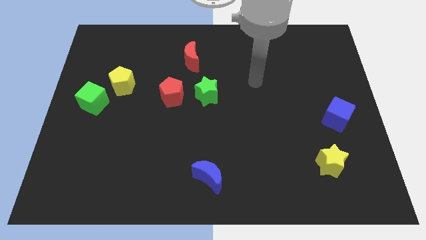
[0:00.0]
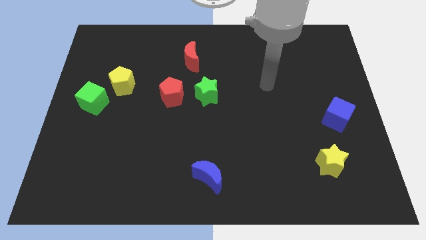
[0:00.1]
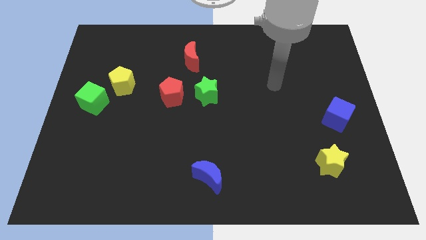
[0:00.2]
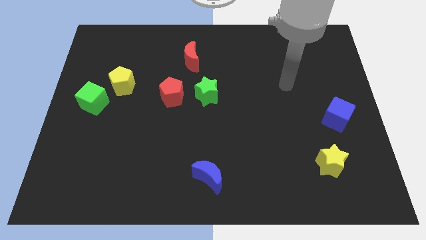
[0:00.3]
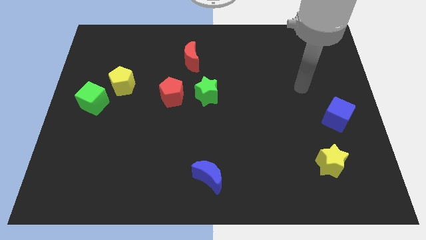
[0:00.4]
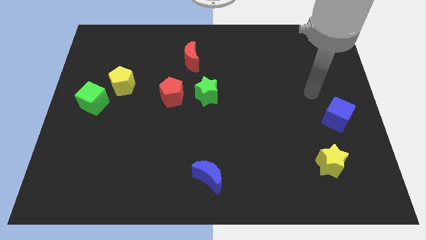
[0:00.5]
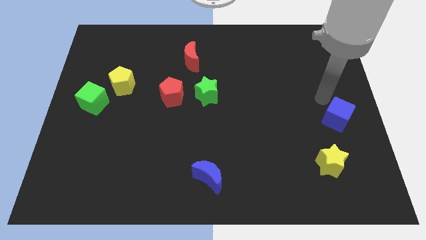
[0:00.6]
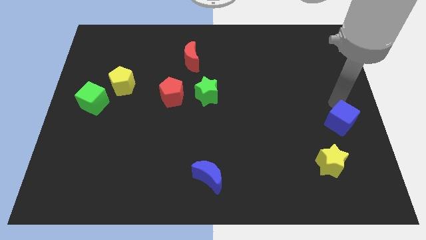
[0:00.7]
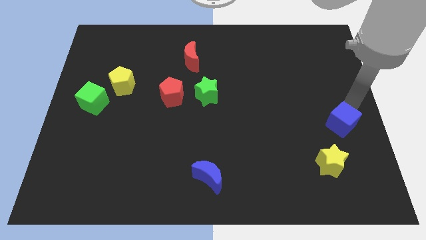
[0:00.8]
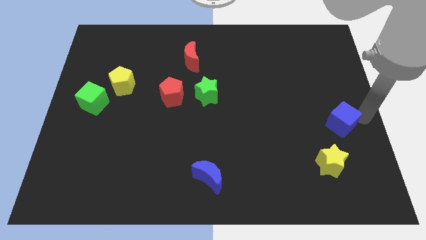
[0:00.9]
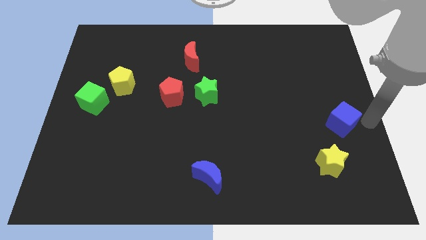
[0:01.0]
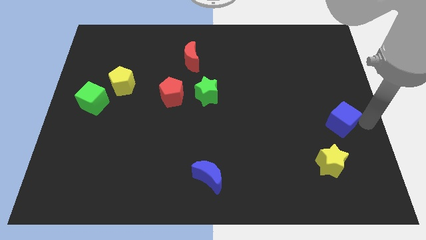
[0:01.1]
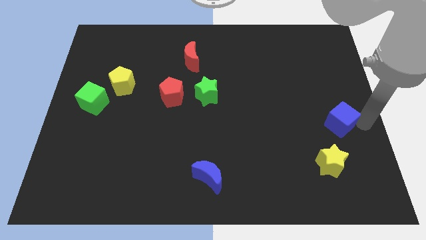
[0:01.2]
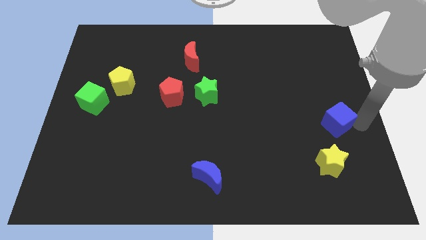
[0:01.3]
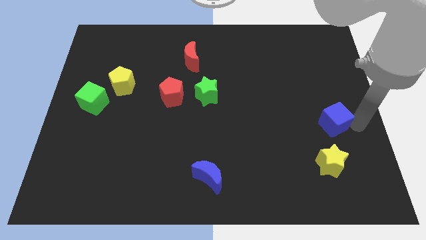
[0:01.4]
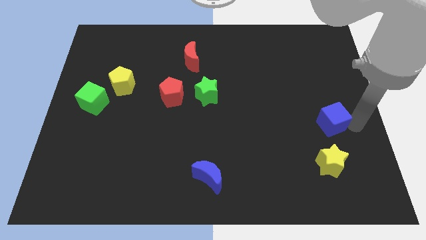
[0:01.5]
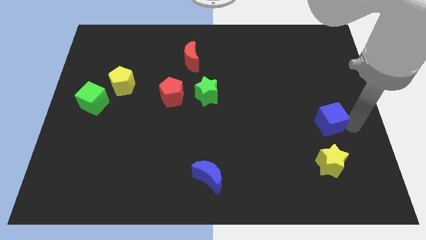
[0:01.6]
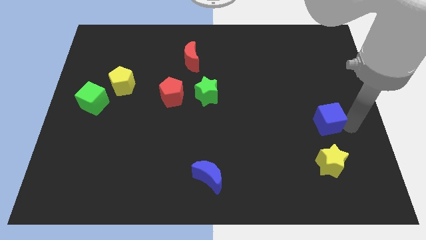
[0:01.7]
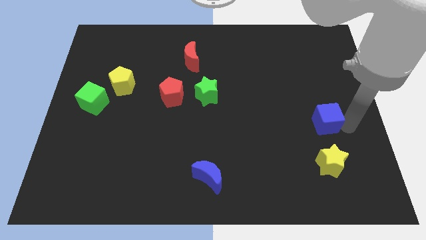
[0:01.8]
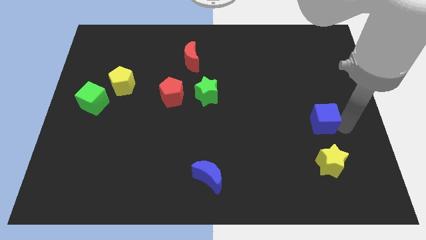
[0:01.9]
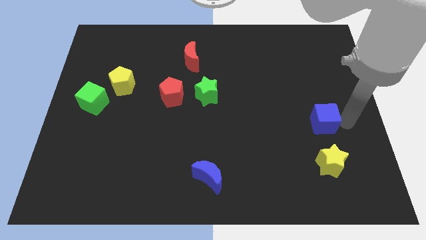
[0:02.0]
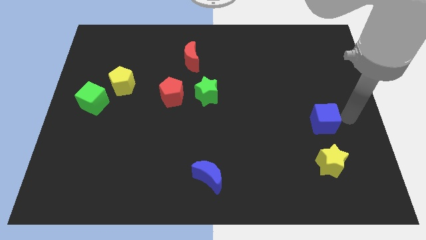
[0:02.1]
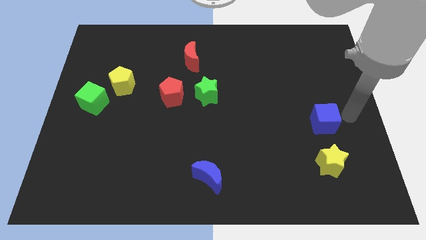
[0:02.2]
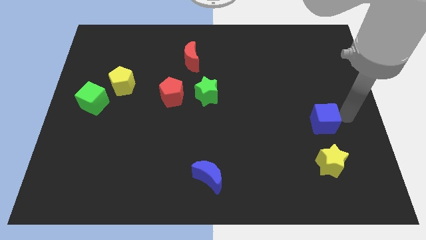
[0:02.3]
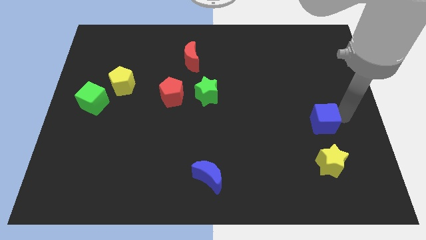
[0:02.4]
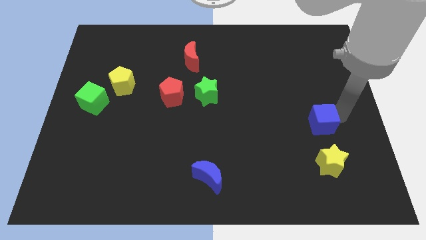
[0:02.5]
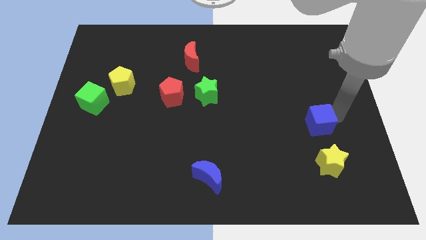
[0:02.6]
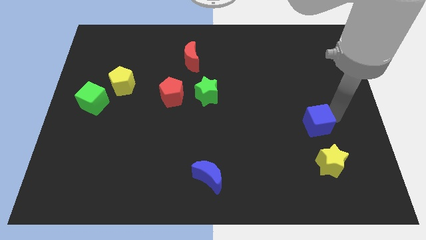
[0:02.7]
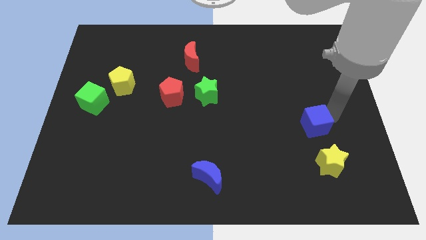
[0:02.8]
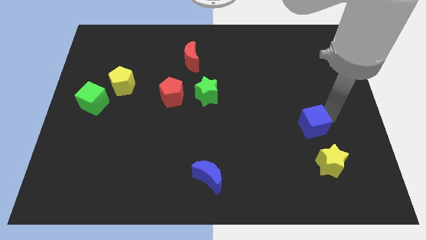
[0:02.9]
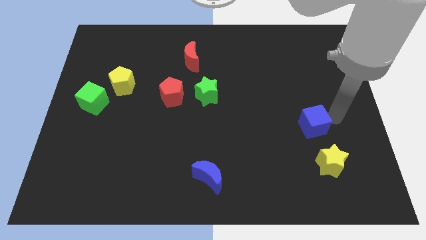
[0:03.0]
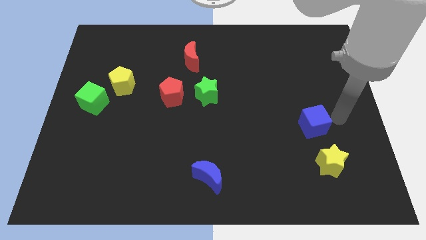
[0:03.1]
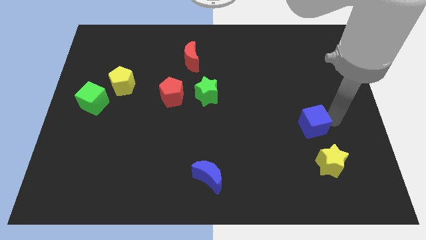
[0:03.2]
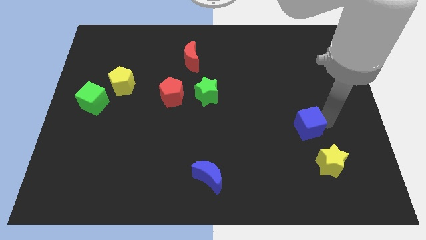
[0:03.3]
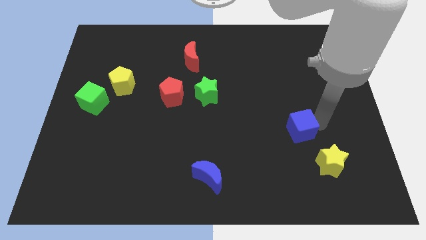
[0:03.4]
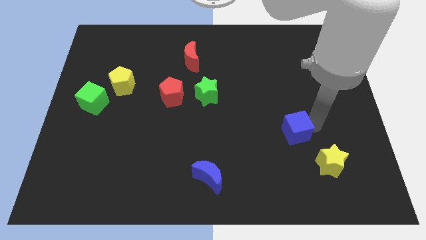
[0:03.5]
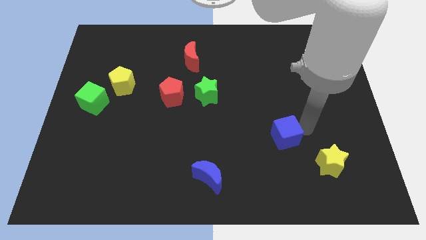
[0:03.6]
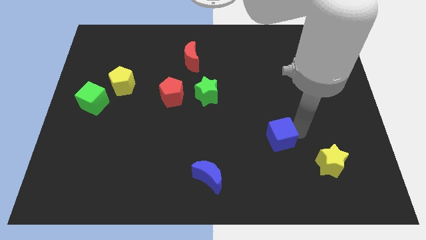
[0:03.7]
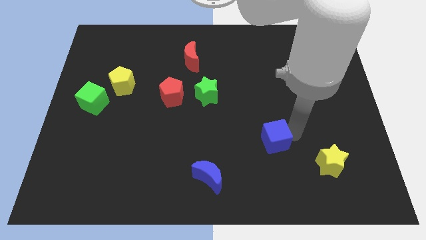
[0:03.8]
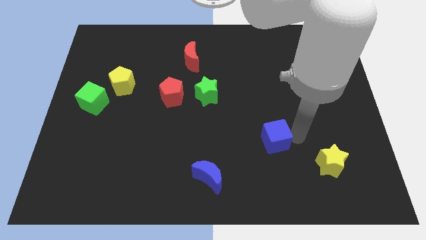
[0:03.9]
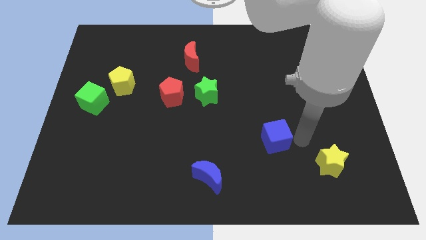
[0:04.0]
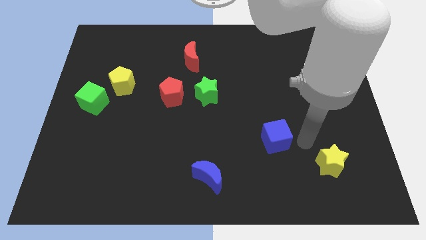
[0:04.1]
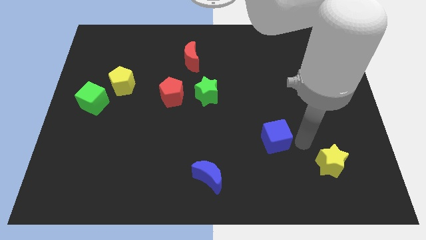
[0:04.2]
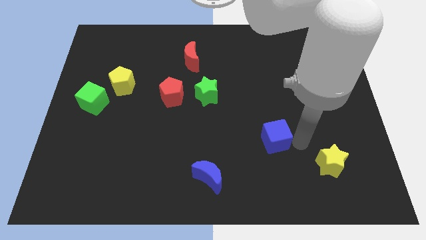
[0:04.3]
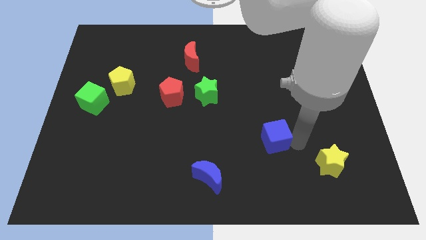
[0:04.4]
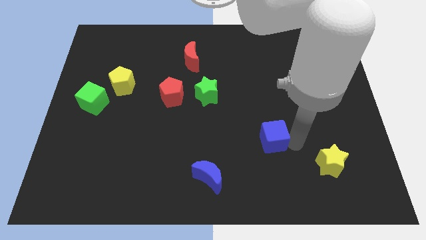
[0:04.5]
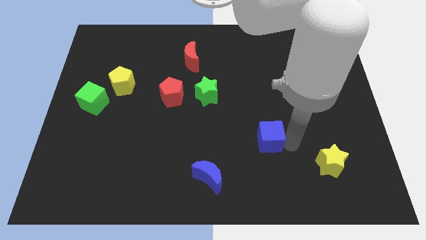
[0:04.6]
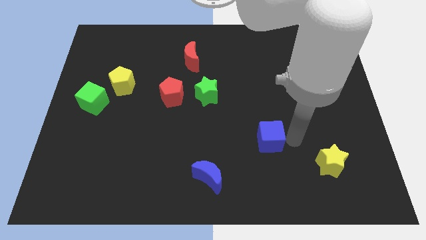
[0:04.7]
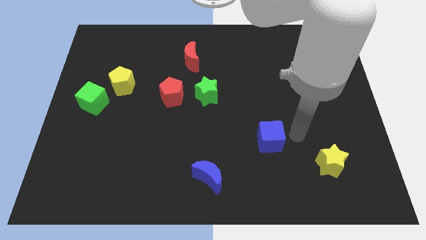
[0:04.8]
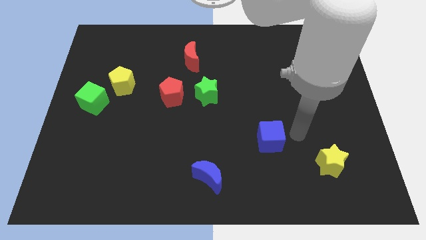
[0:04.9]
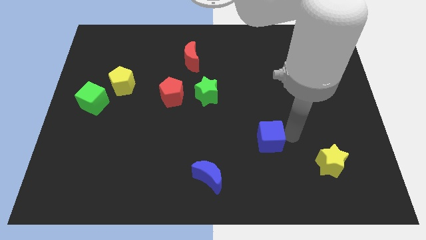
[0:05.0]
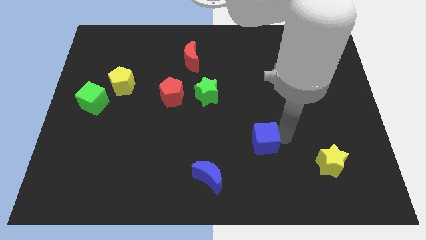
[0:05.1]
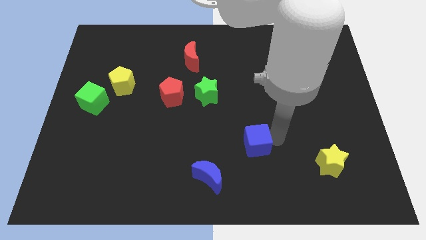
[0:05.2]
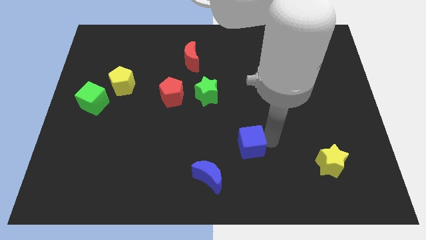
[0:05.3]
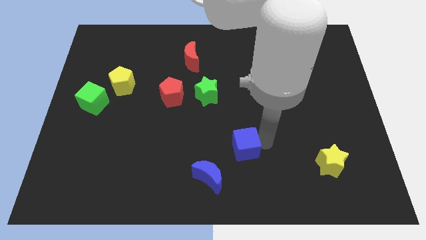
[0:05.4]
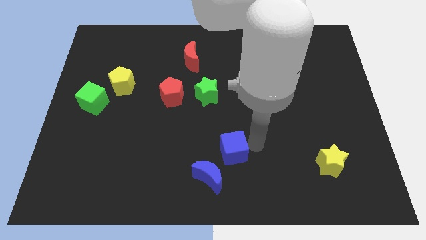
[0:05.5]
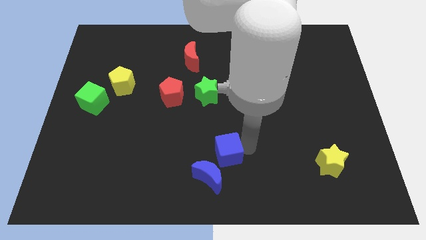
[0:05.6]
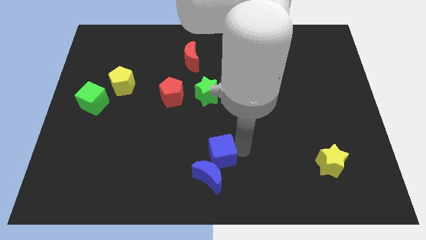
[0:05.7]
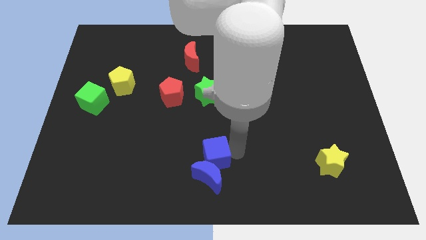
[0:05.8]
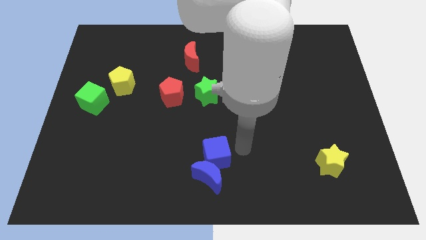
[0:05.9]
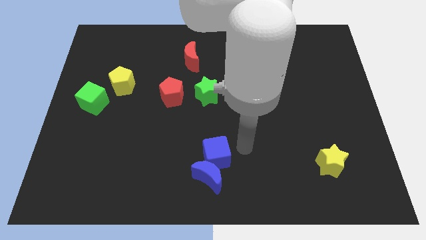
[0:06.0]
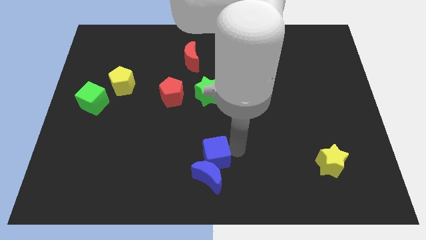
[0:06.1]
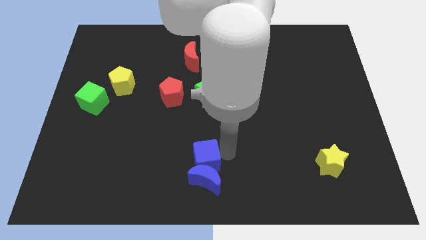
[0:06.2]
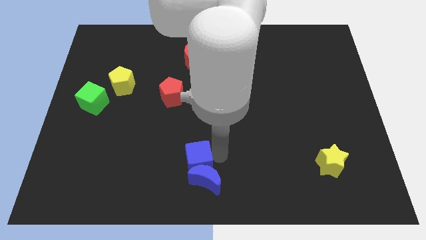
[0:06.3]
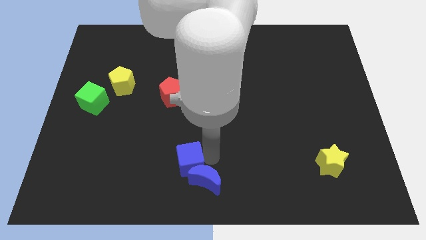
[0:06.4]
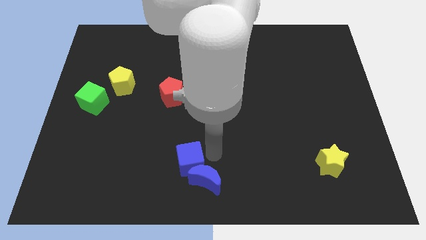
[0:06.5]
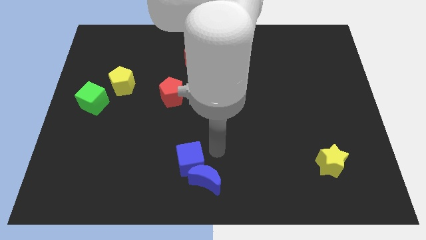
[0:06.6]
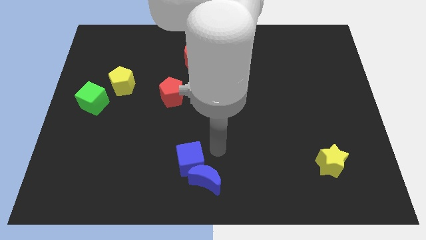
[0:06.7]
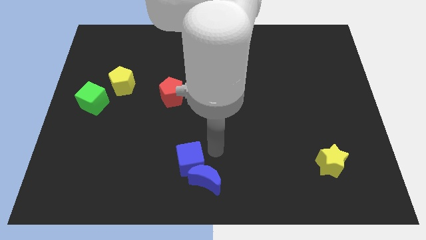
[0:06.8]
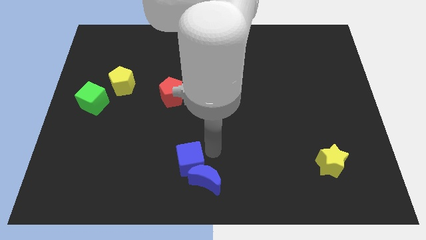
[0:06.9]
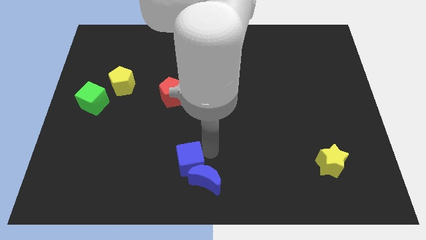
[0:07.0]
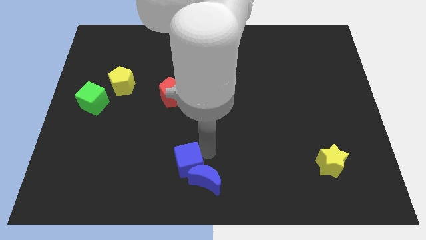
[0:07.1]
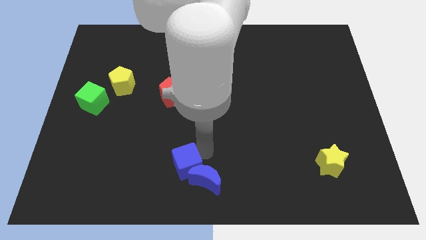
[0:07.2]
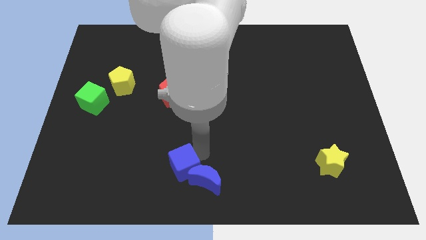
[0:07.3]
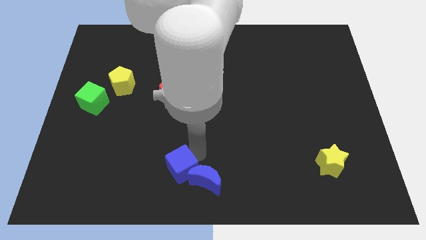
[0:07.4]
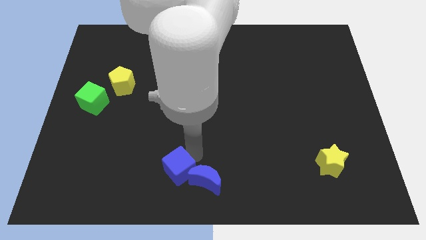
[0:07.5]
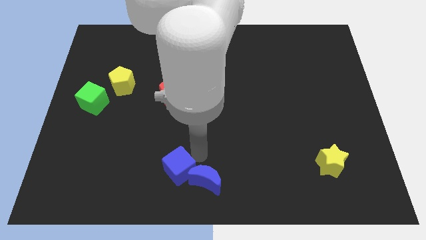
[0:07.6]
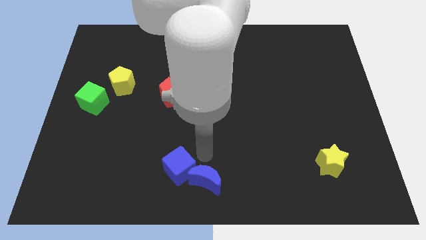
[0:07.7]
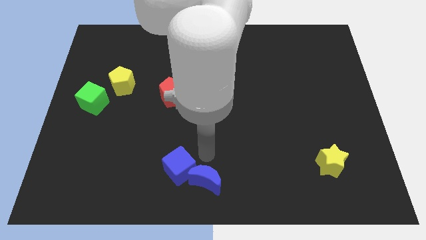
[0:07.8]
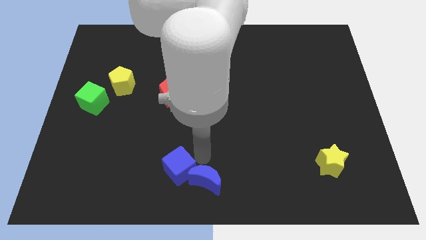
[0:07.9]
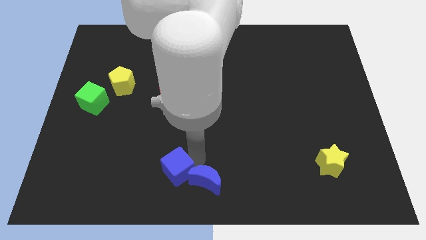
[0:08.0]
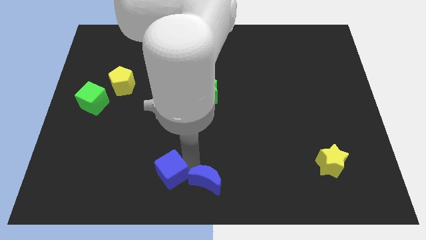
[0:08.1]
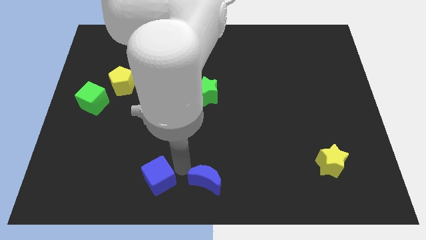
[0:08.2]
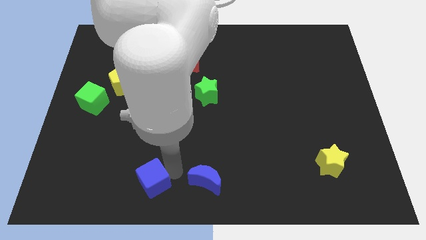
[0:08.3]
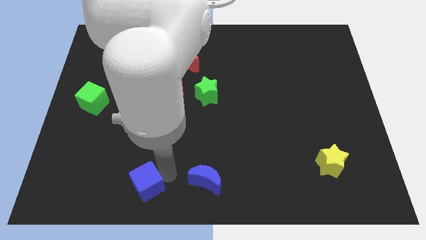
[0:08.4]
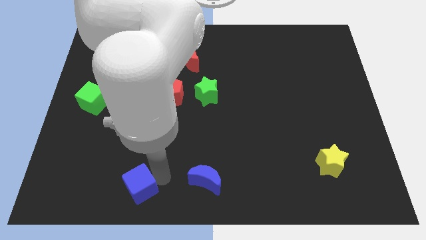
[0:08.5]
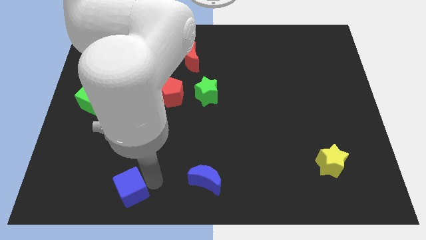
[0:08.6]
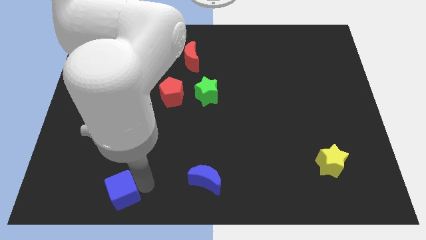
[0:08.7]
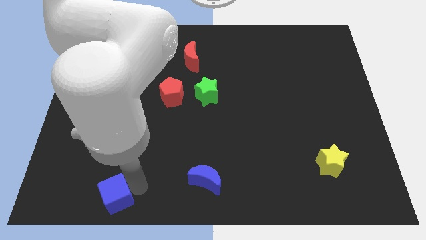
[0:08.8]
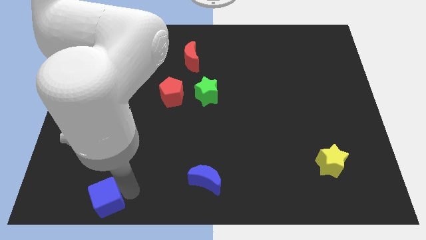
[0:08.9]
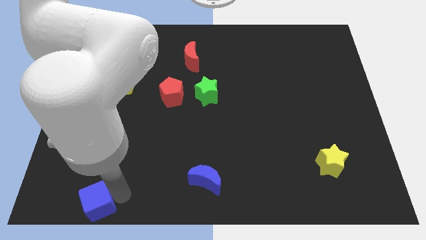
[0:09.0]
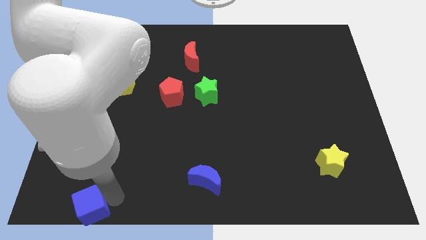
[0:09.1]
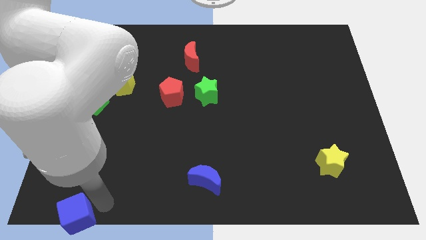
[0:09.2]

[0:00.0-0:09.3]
push the blue cube to the bottom left of the board
